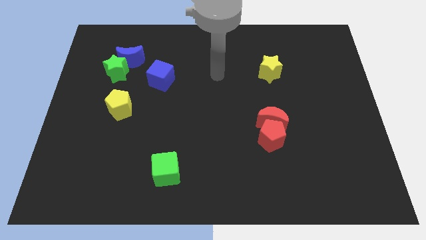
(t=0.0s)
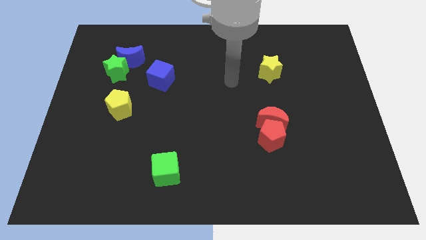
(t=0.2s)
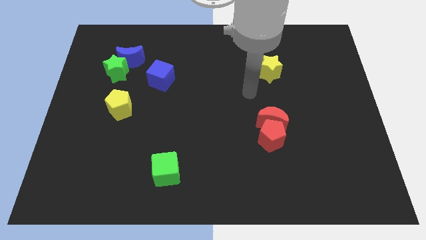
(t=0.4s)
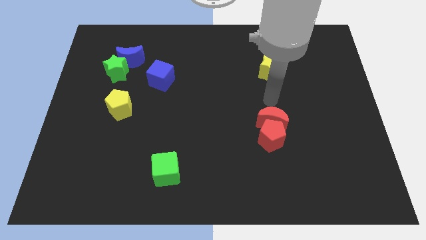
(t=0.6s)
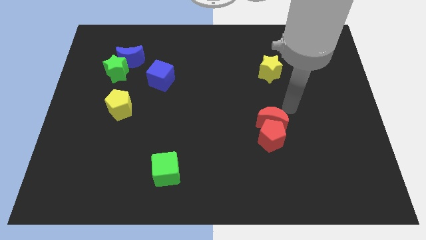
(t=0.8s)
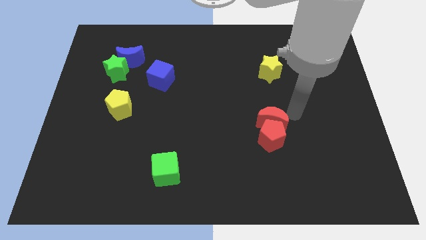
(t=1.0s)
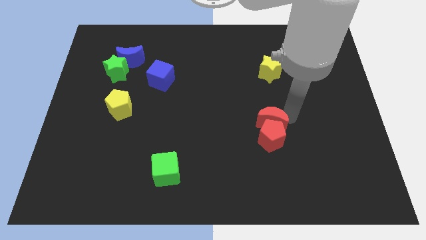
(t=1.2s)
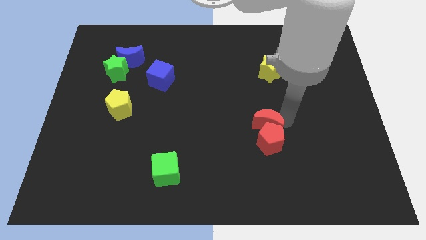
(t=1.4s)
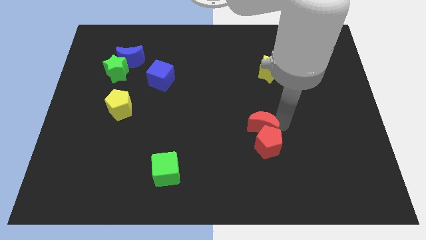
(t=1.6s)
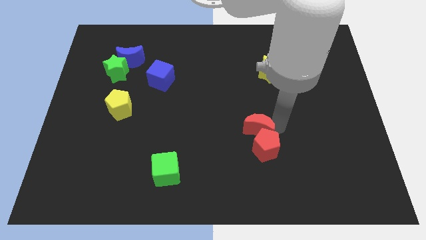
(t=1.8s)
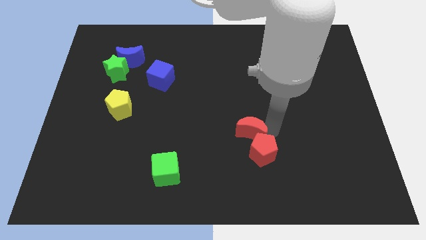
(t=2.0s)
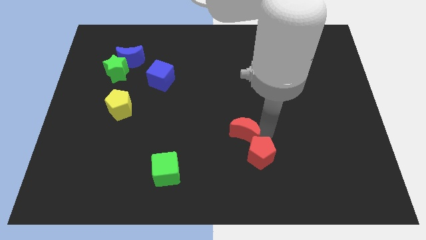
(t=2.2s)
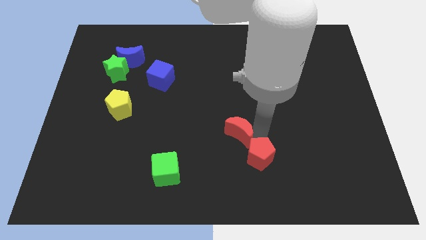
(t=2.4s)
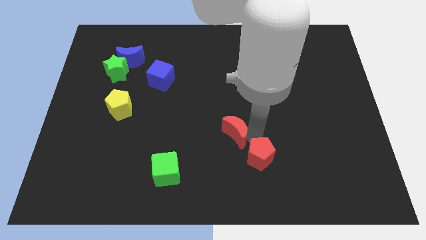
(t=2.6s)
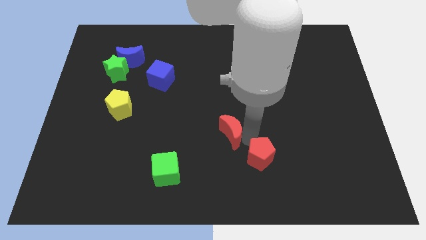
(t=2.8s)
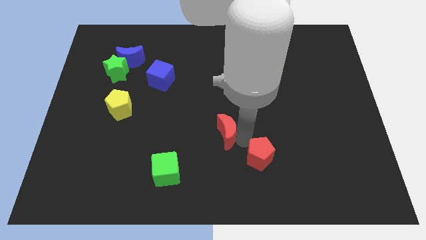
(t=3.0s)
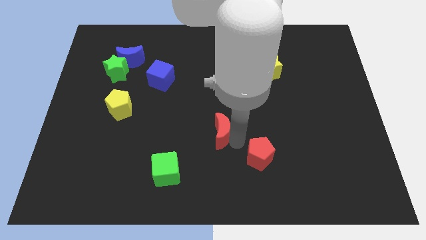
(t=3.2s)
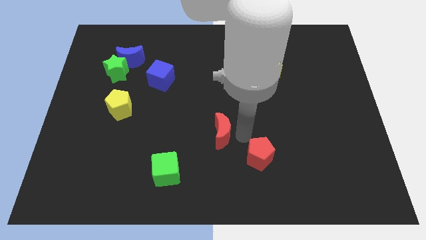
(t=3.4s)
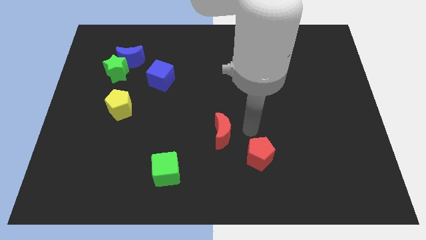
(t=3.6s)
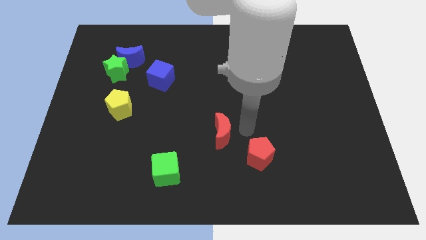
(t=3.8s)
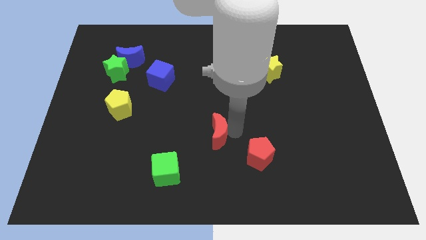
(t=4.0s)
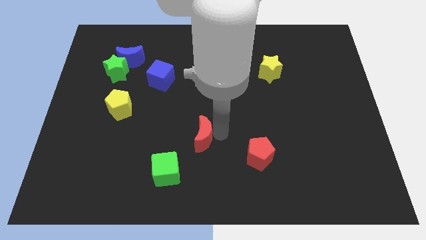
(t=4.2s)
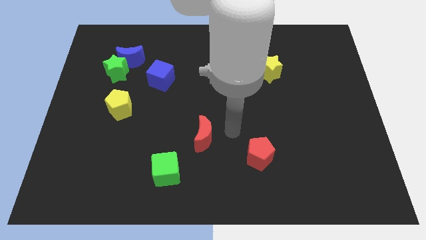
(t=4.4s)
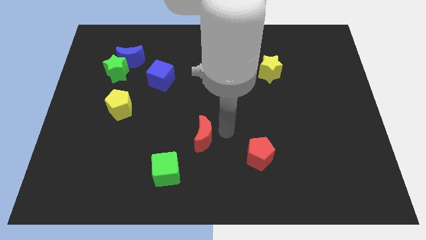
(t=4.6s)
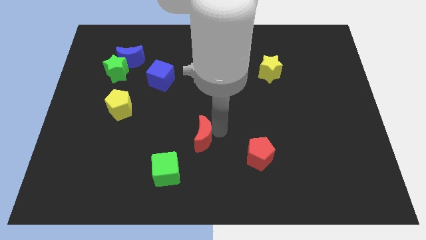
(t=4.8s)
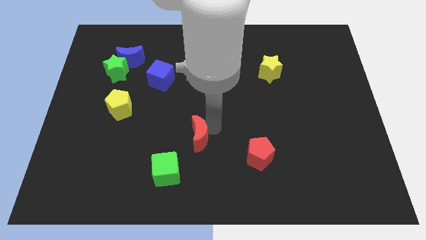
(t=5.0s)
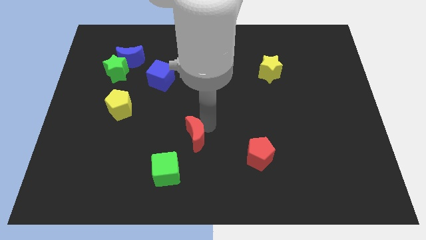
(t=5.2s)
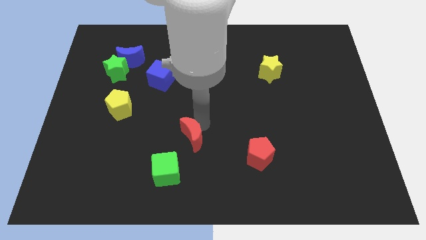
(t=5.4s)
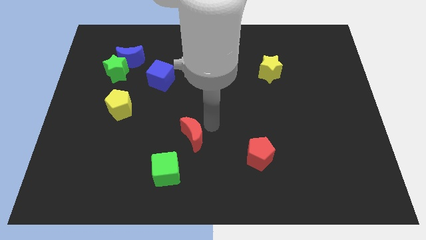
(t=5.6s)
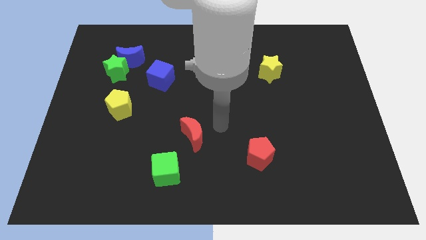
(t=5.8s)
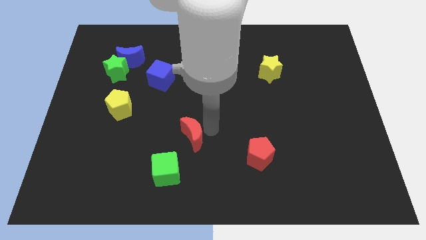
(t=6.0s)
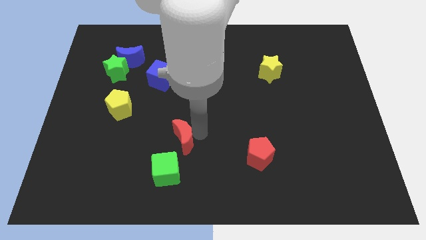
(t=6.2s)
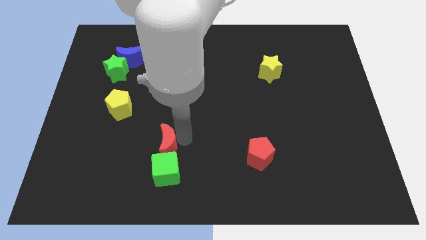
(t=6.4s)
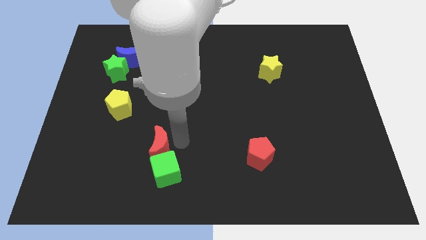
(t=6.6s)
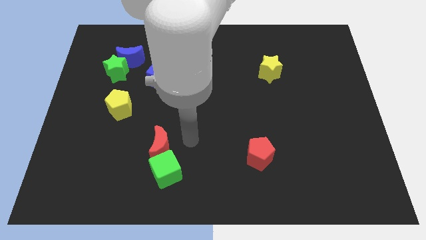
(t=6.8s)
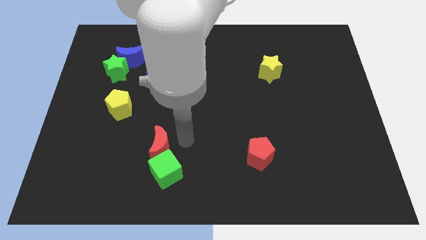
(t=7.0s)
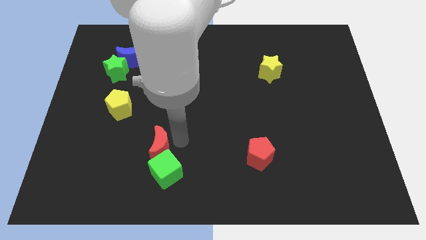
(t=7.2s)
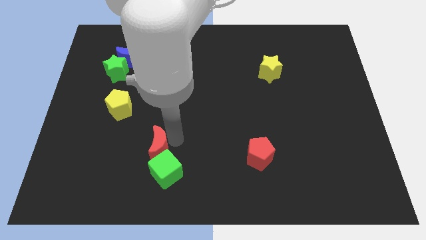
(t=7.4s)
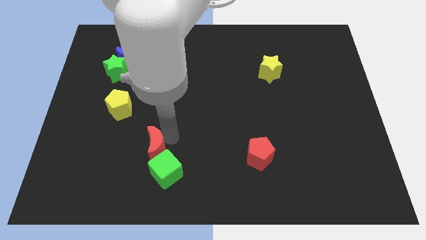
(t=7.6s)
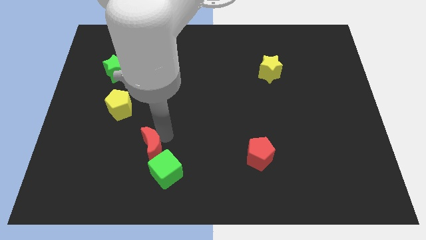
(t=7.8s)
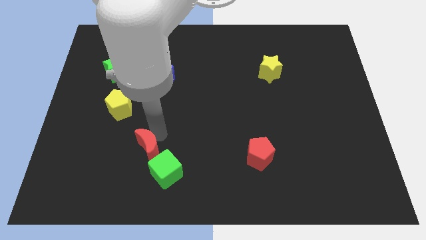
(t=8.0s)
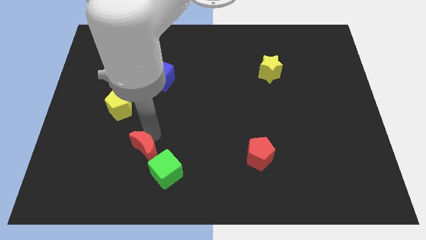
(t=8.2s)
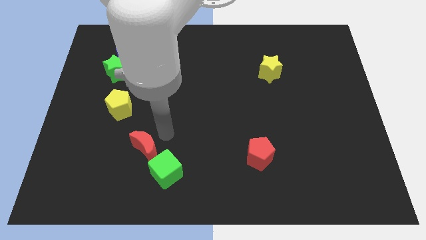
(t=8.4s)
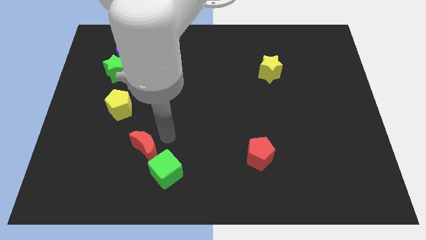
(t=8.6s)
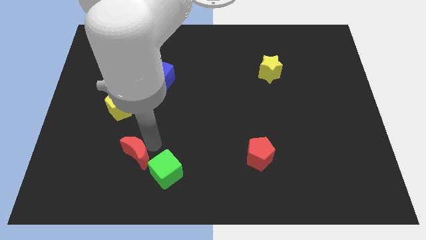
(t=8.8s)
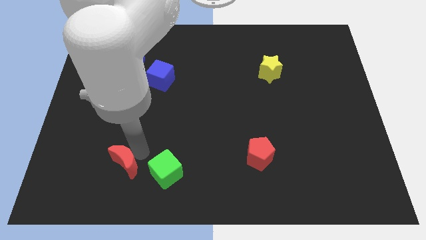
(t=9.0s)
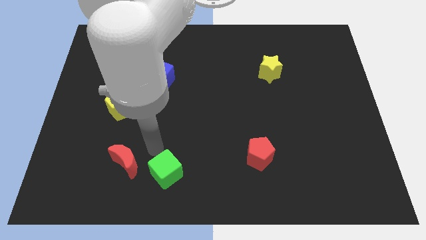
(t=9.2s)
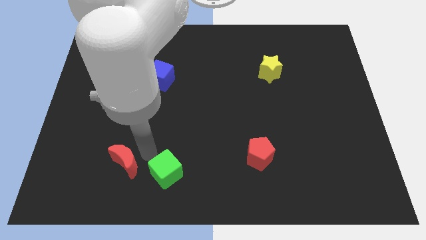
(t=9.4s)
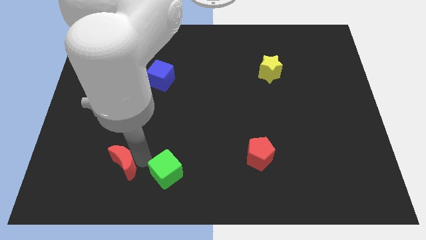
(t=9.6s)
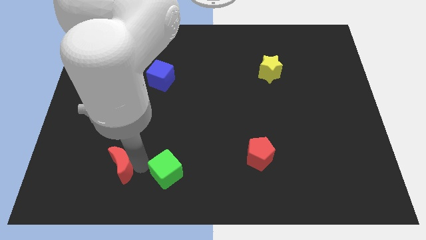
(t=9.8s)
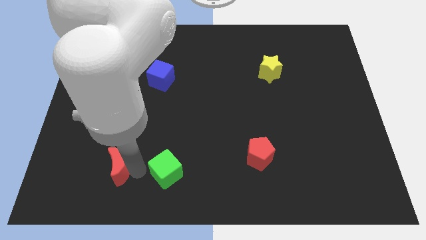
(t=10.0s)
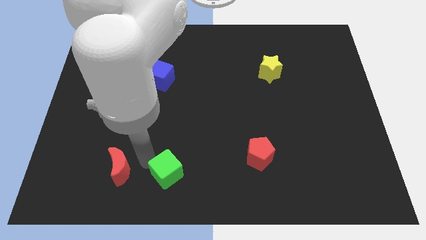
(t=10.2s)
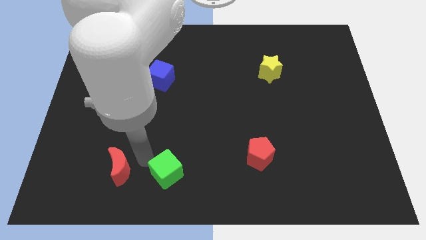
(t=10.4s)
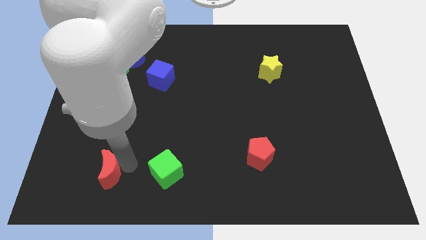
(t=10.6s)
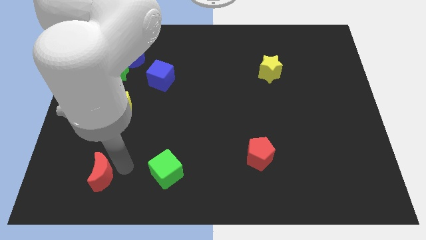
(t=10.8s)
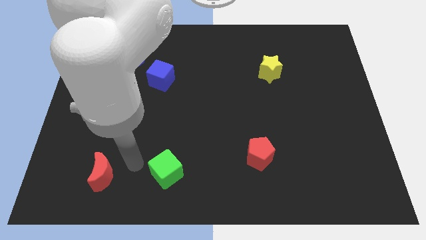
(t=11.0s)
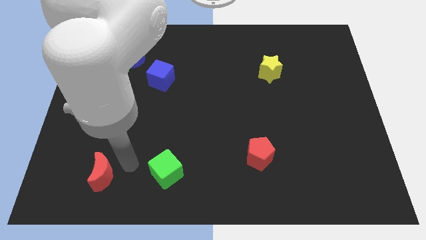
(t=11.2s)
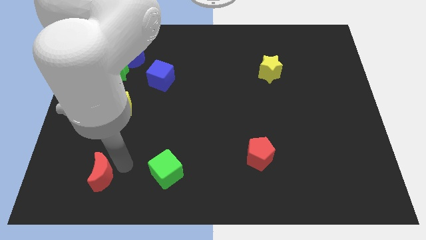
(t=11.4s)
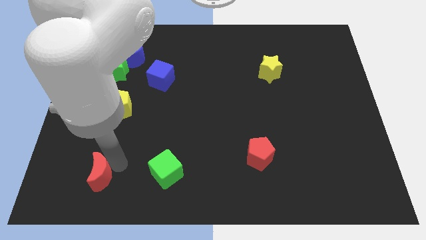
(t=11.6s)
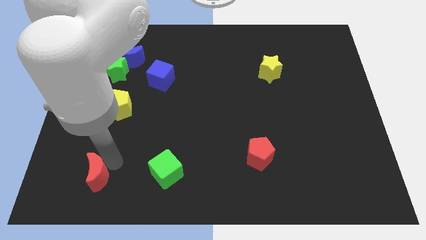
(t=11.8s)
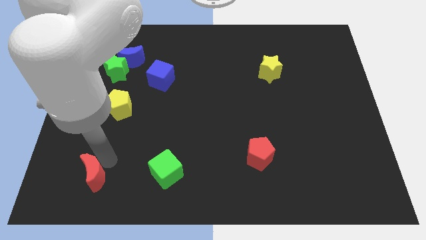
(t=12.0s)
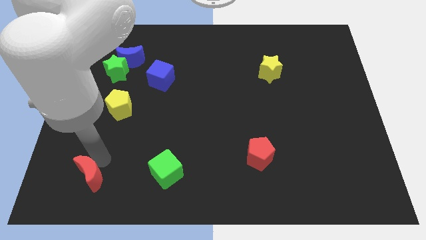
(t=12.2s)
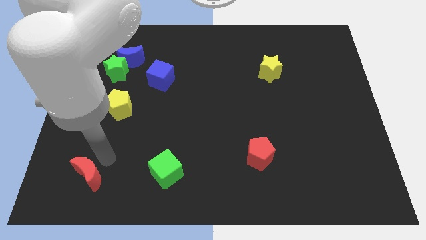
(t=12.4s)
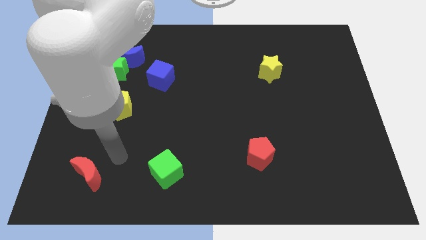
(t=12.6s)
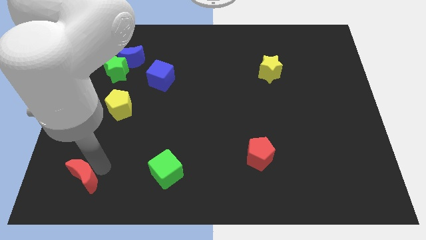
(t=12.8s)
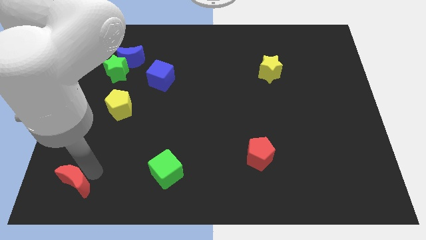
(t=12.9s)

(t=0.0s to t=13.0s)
put the red moon to the bottom left
